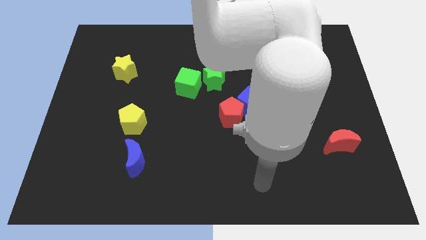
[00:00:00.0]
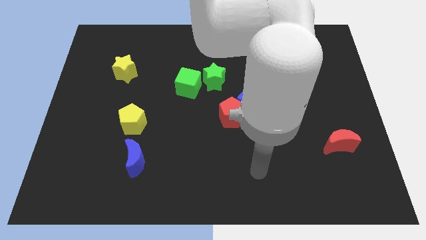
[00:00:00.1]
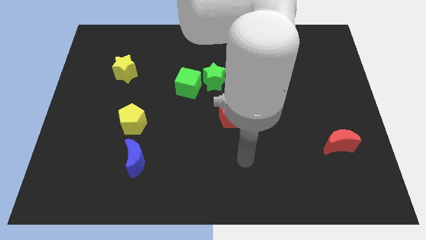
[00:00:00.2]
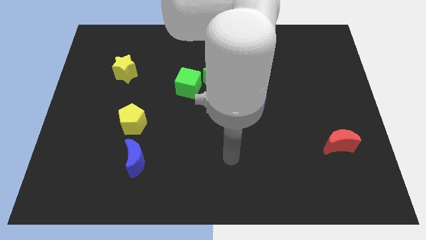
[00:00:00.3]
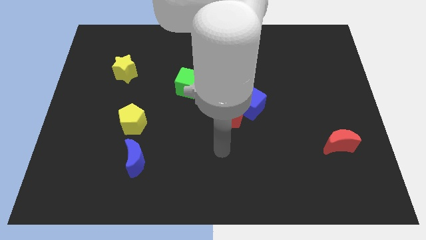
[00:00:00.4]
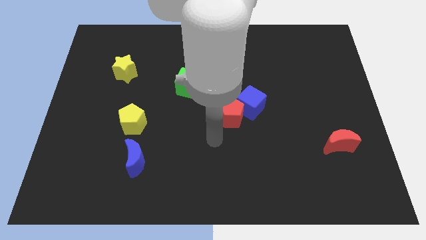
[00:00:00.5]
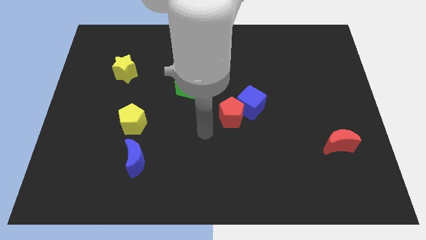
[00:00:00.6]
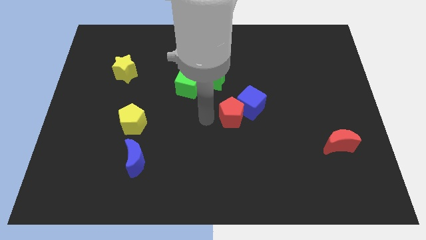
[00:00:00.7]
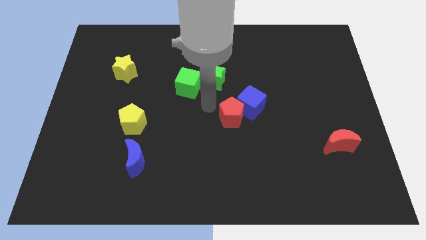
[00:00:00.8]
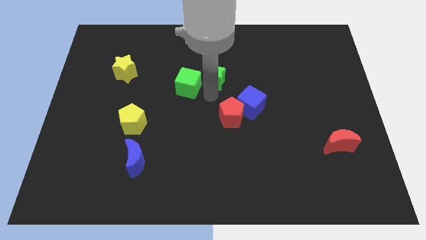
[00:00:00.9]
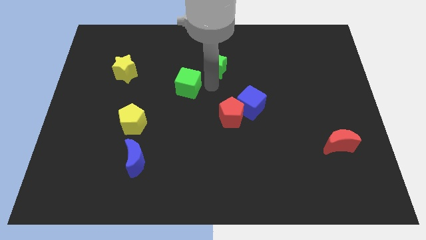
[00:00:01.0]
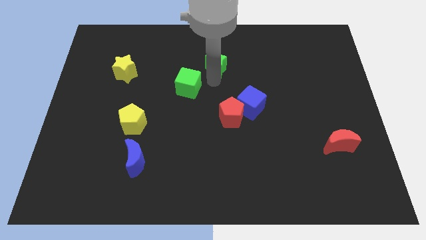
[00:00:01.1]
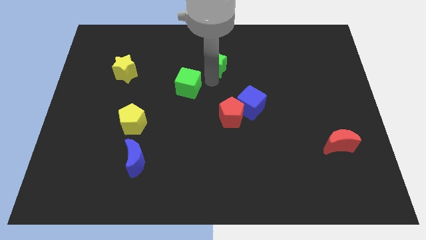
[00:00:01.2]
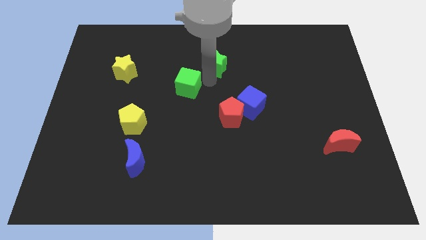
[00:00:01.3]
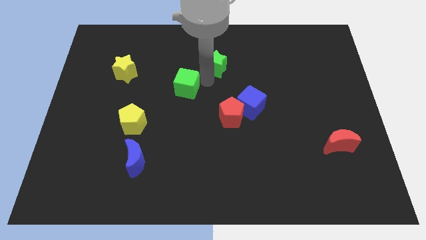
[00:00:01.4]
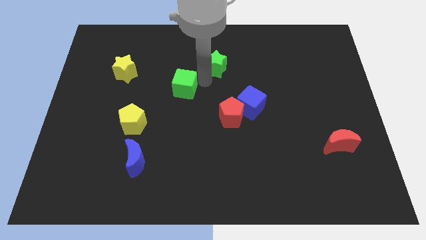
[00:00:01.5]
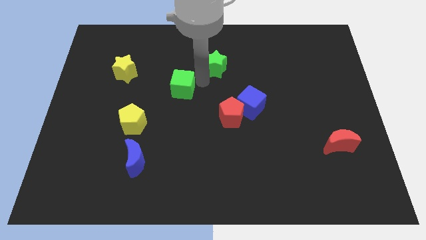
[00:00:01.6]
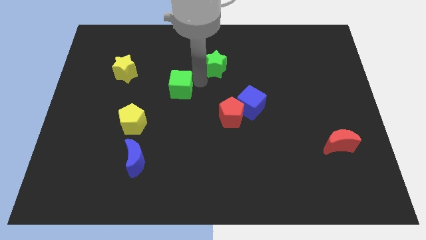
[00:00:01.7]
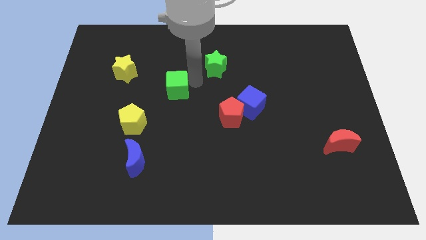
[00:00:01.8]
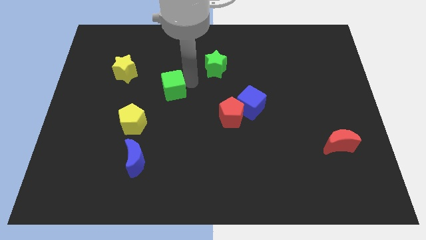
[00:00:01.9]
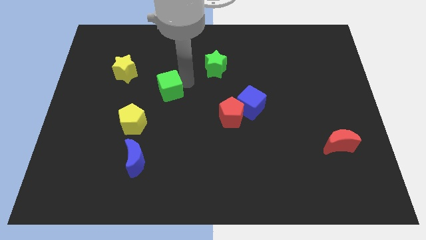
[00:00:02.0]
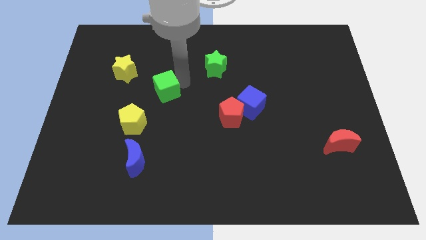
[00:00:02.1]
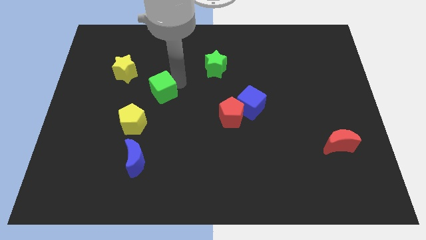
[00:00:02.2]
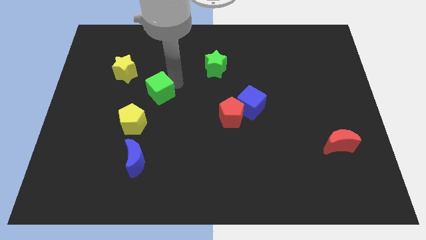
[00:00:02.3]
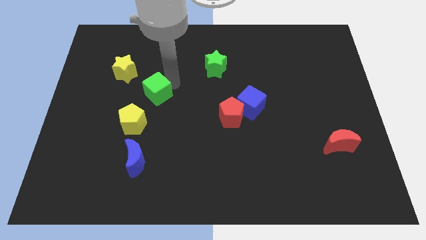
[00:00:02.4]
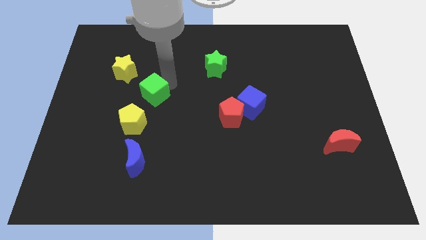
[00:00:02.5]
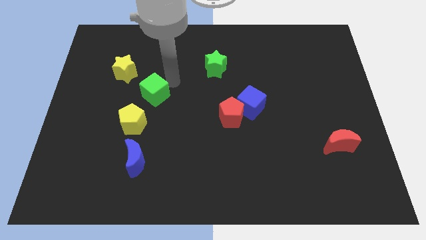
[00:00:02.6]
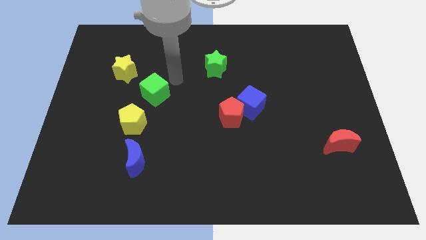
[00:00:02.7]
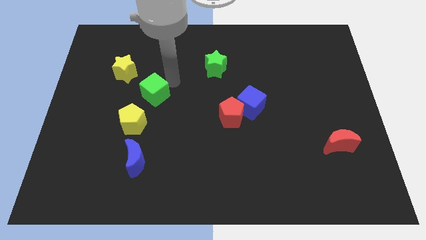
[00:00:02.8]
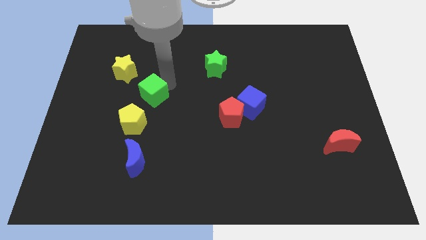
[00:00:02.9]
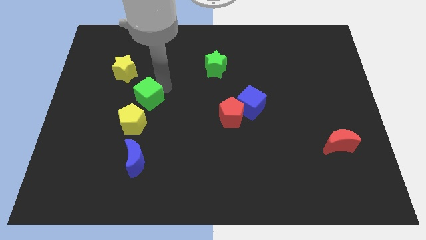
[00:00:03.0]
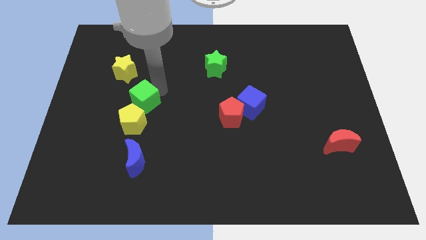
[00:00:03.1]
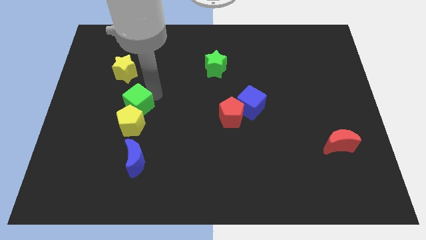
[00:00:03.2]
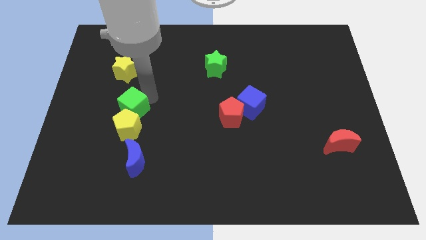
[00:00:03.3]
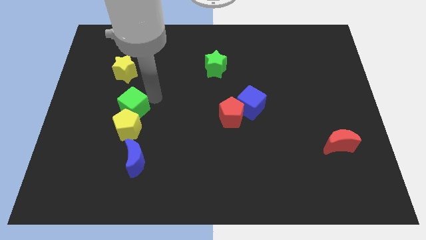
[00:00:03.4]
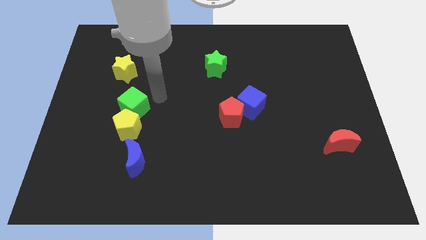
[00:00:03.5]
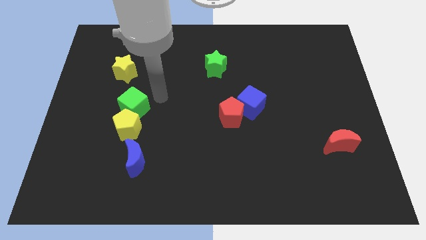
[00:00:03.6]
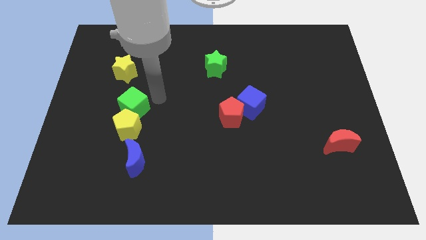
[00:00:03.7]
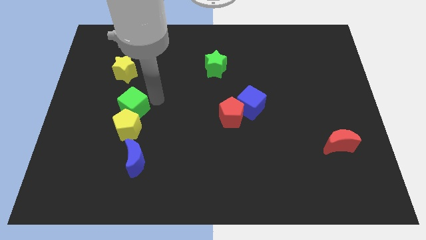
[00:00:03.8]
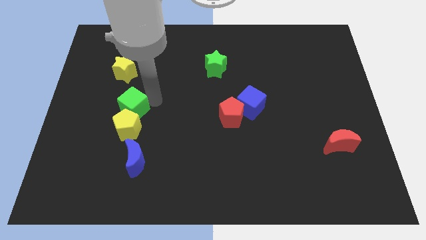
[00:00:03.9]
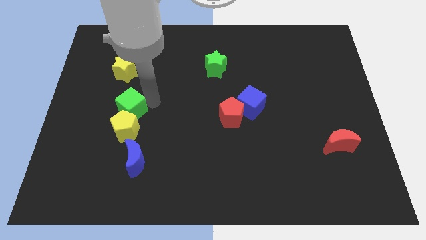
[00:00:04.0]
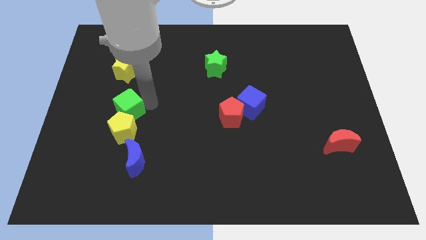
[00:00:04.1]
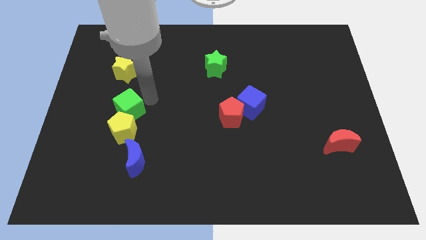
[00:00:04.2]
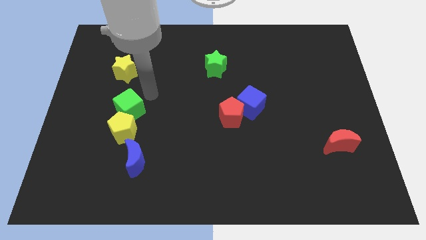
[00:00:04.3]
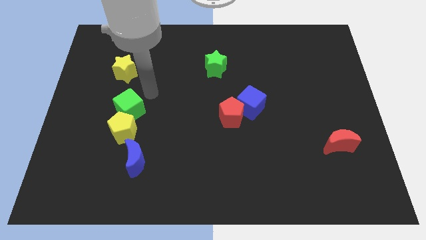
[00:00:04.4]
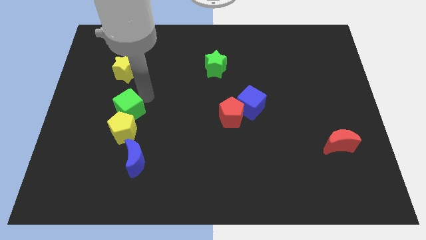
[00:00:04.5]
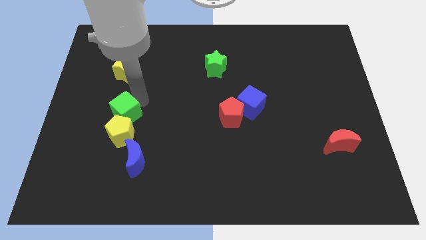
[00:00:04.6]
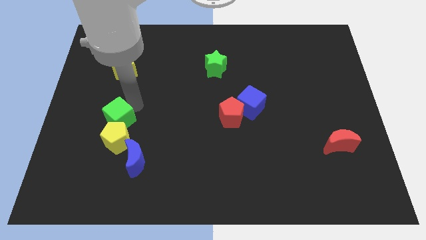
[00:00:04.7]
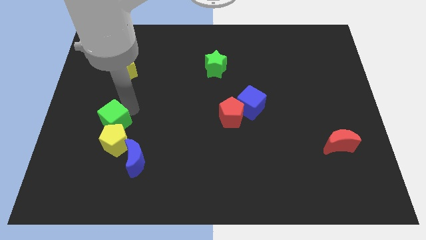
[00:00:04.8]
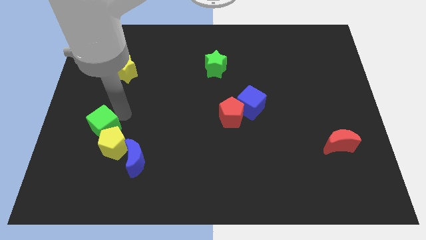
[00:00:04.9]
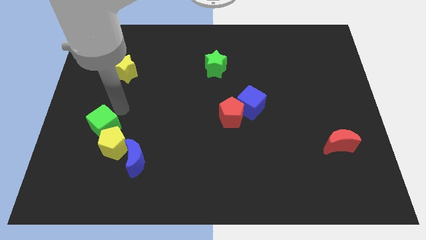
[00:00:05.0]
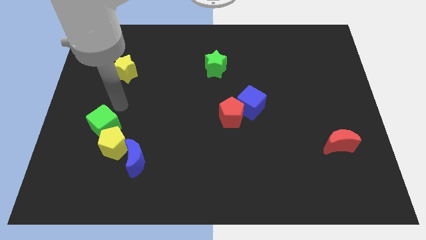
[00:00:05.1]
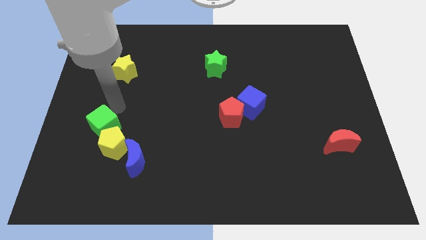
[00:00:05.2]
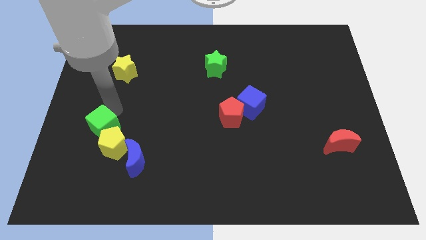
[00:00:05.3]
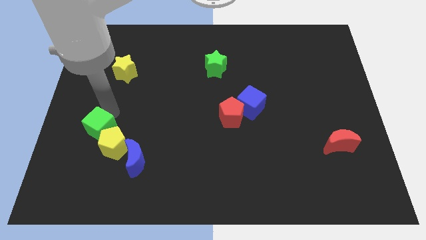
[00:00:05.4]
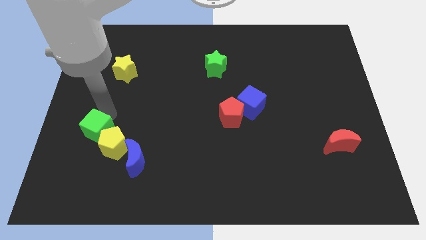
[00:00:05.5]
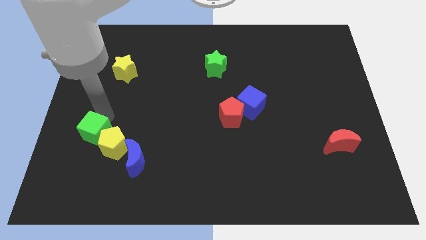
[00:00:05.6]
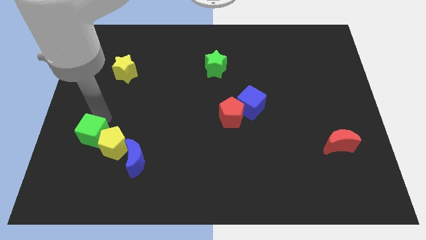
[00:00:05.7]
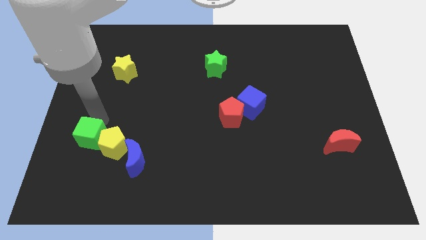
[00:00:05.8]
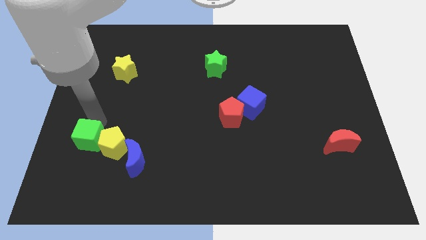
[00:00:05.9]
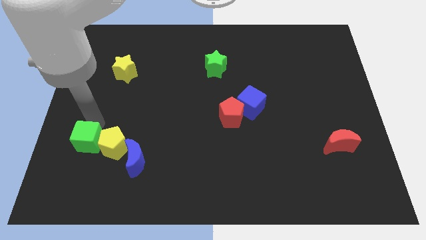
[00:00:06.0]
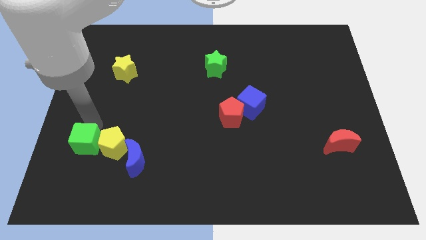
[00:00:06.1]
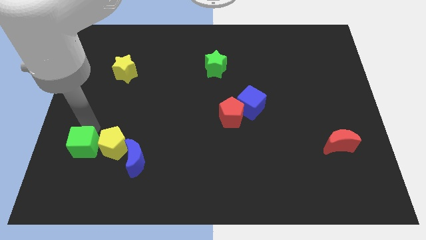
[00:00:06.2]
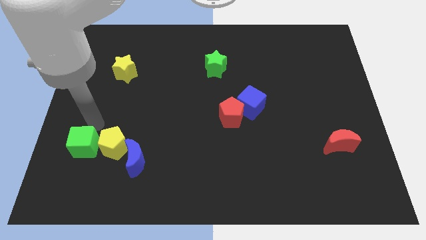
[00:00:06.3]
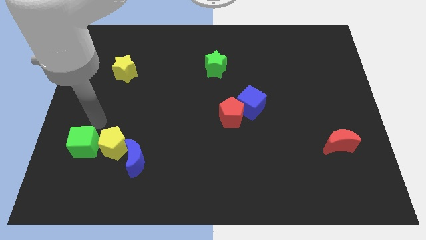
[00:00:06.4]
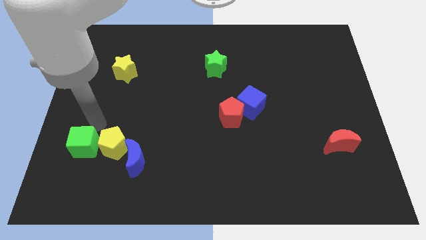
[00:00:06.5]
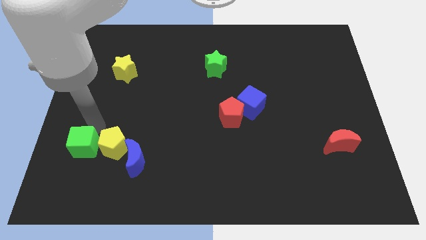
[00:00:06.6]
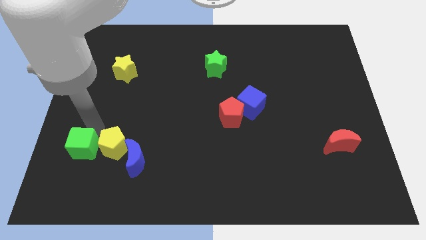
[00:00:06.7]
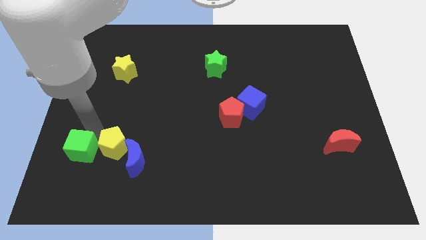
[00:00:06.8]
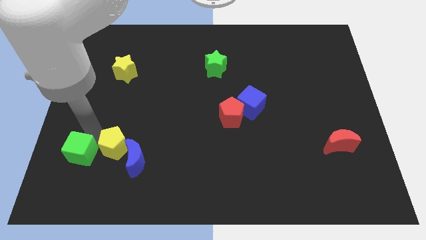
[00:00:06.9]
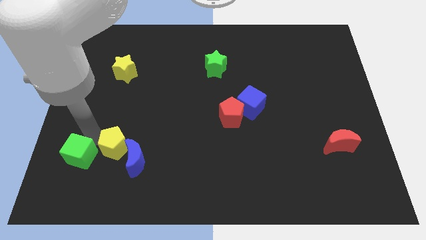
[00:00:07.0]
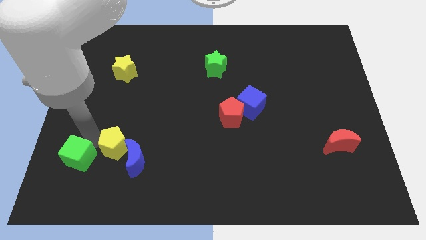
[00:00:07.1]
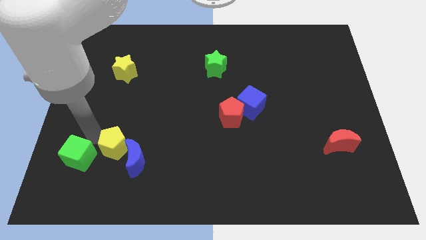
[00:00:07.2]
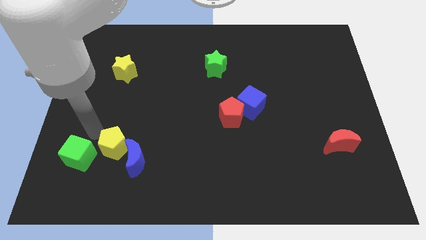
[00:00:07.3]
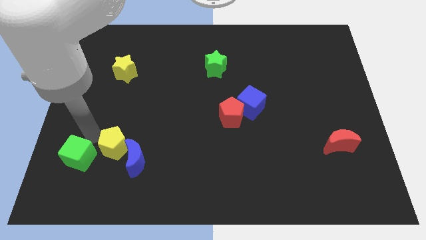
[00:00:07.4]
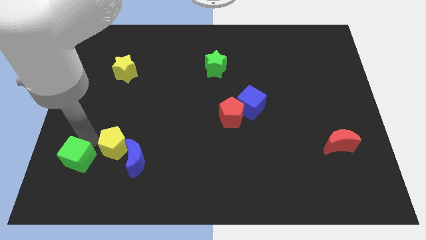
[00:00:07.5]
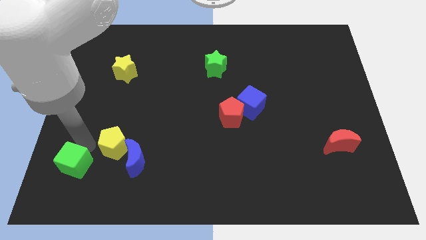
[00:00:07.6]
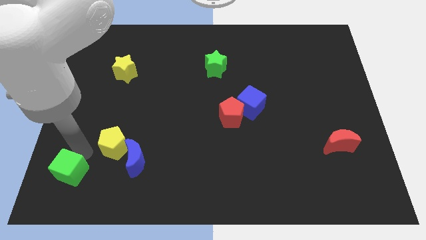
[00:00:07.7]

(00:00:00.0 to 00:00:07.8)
put the green cube to the lower left corner
